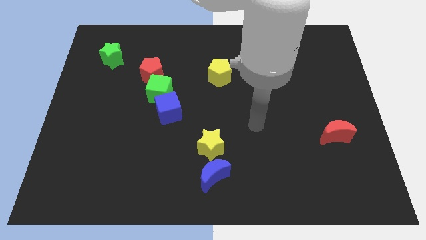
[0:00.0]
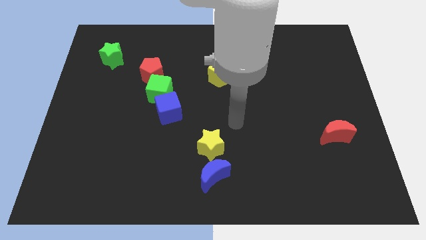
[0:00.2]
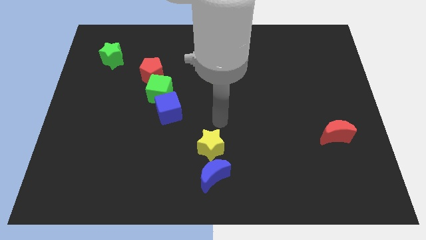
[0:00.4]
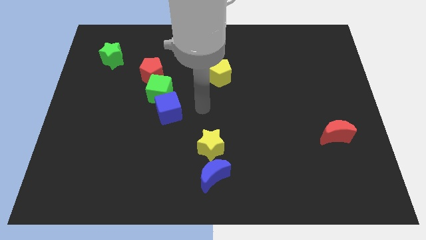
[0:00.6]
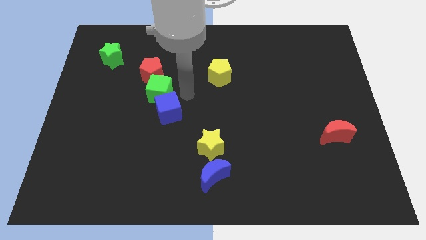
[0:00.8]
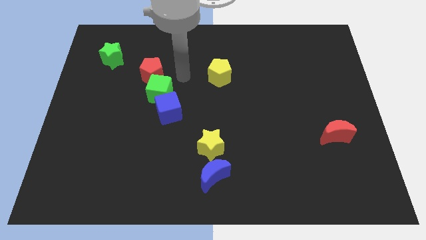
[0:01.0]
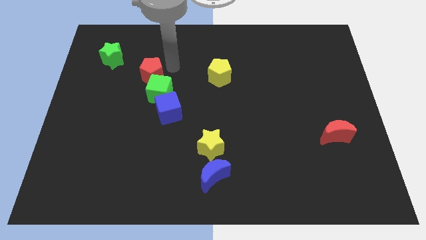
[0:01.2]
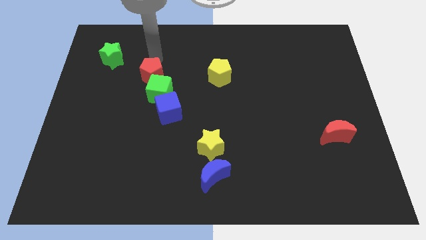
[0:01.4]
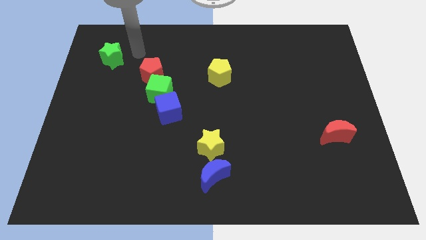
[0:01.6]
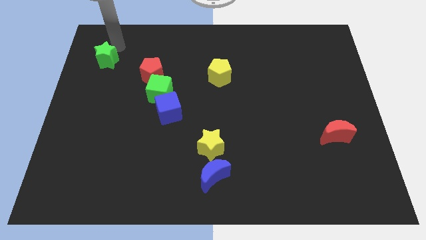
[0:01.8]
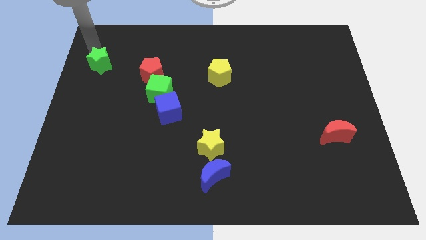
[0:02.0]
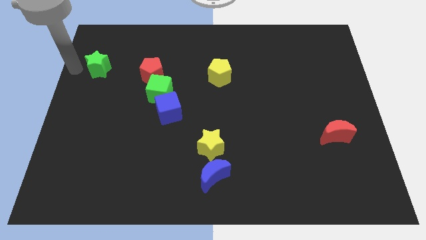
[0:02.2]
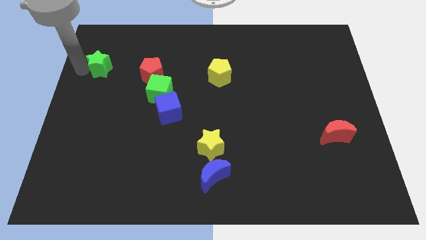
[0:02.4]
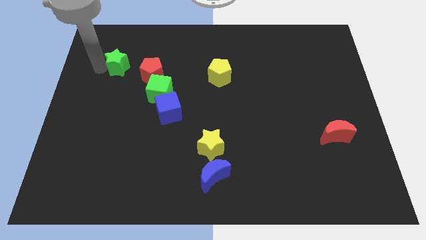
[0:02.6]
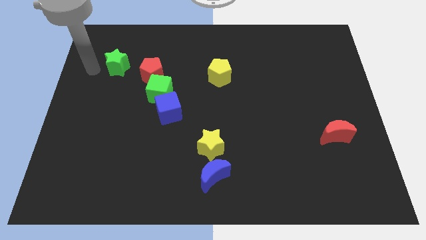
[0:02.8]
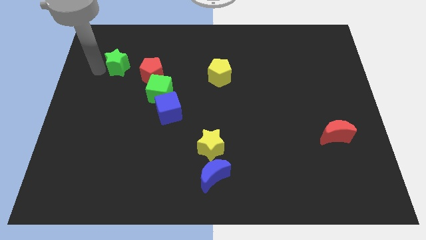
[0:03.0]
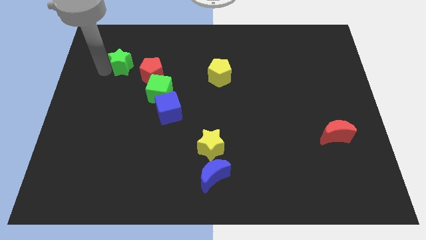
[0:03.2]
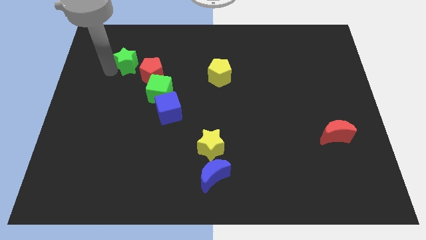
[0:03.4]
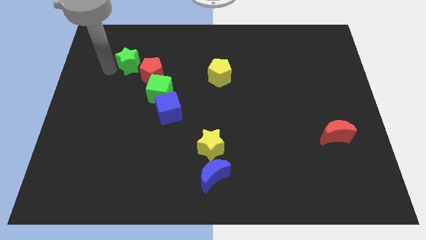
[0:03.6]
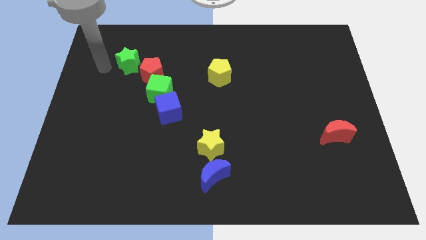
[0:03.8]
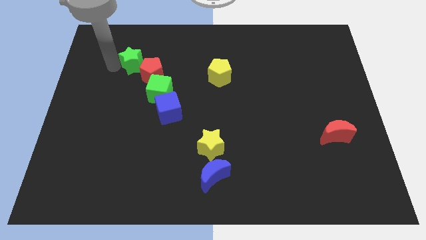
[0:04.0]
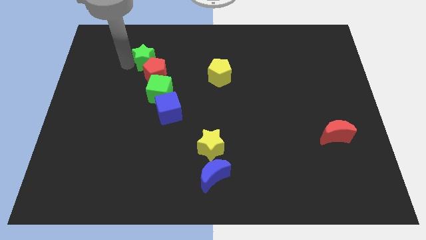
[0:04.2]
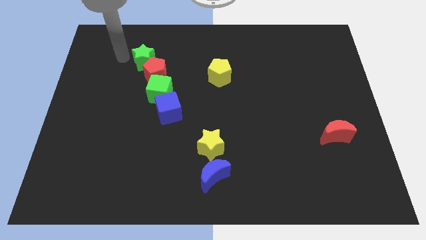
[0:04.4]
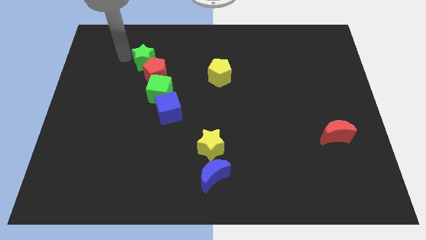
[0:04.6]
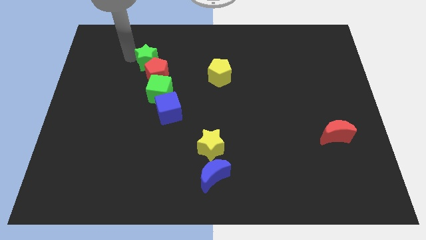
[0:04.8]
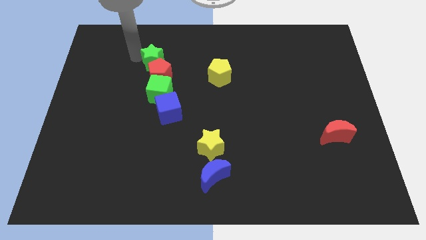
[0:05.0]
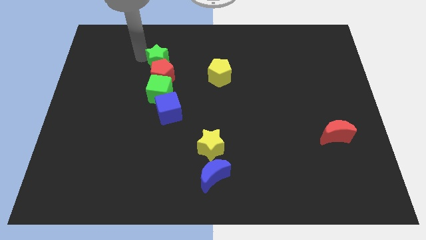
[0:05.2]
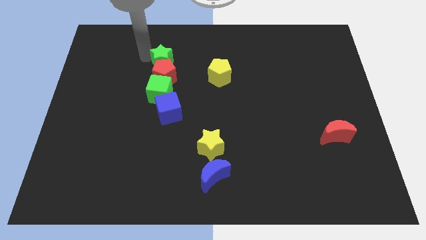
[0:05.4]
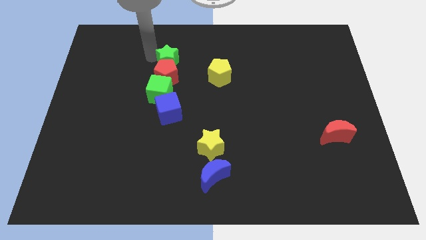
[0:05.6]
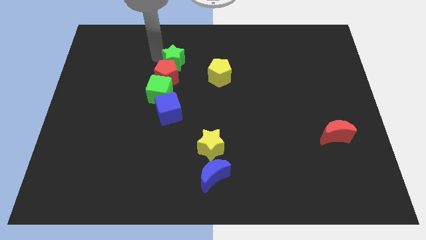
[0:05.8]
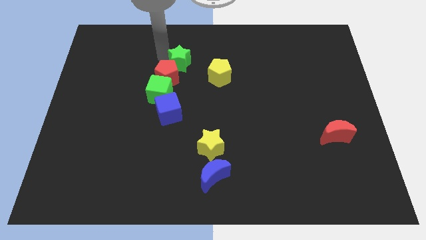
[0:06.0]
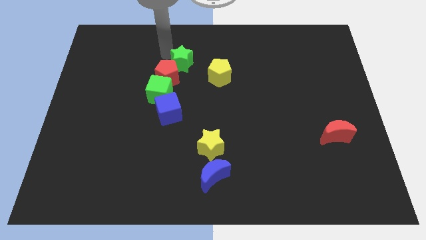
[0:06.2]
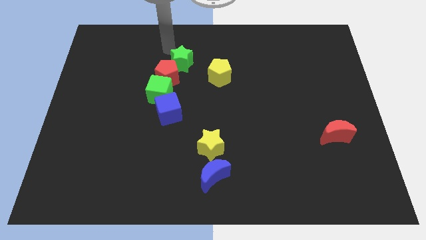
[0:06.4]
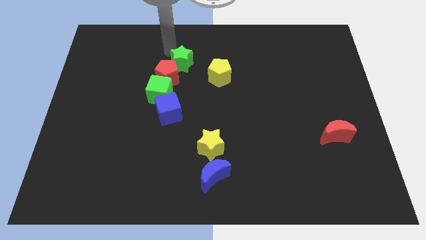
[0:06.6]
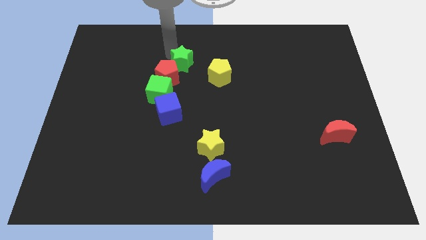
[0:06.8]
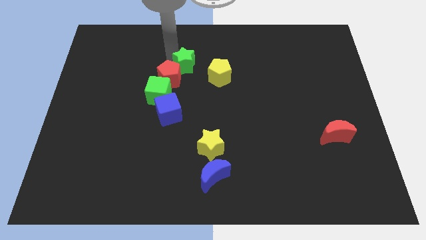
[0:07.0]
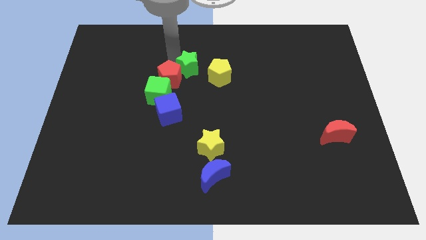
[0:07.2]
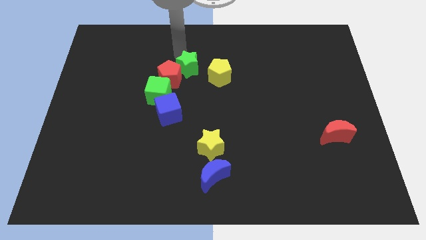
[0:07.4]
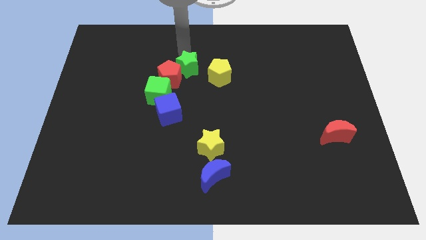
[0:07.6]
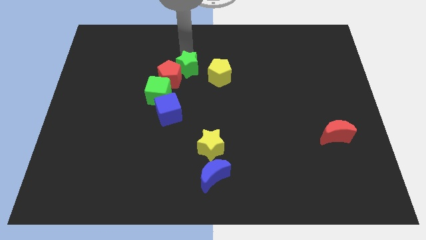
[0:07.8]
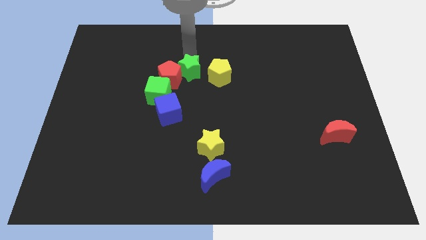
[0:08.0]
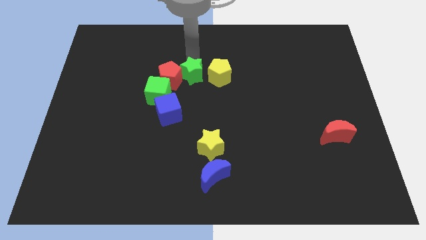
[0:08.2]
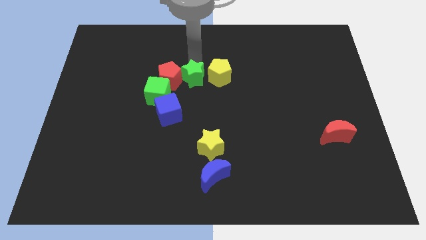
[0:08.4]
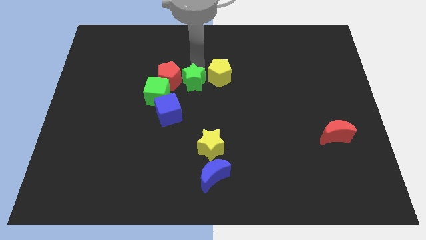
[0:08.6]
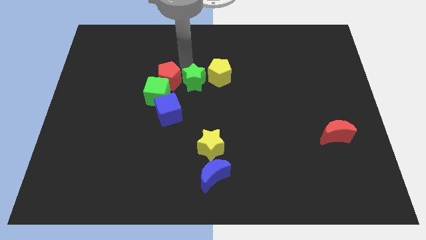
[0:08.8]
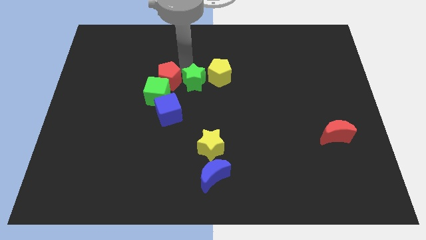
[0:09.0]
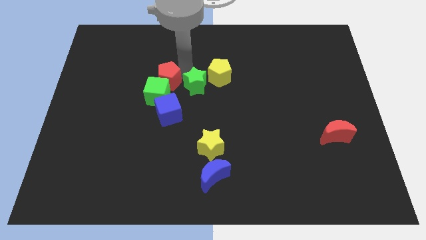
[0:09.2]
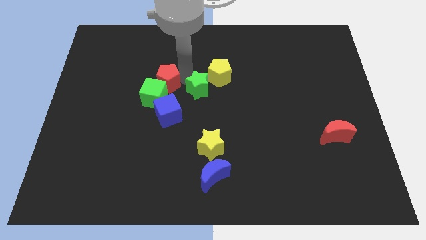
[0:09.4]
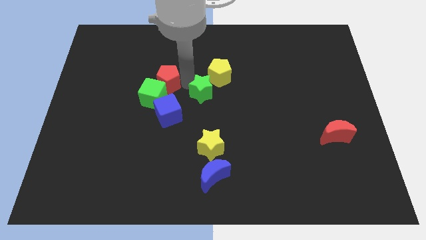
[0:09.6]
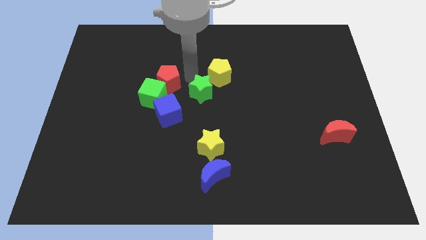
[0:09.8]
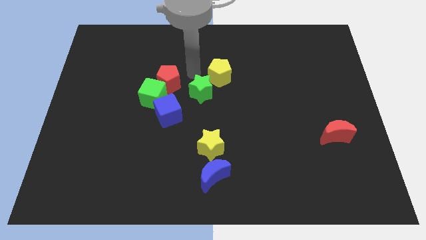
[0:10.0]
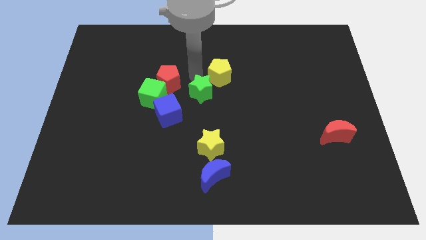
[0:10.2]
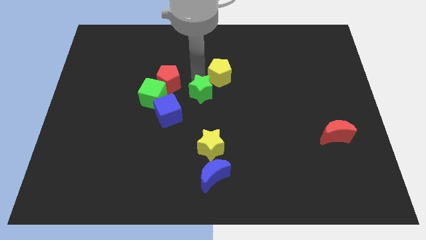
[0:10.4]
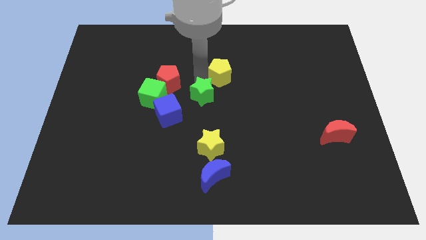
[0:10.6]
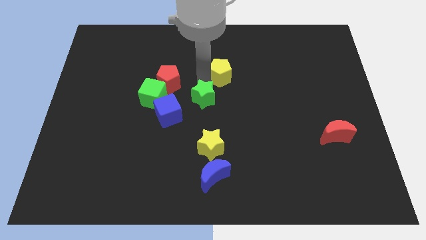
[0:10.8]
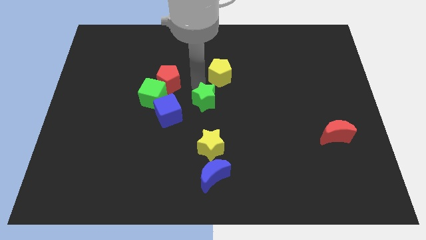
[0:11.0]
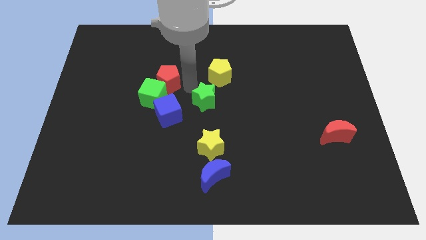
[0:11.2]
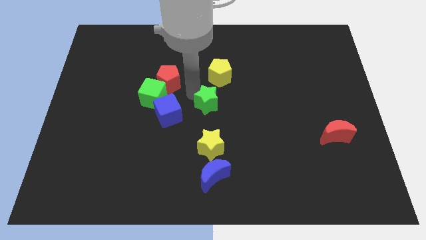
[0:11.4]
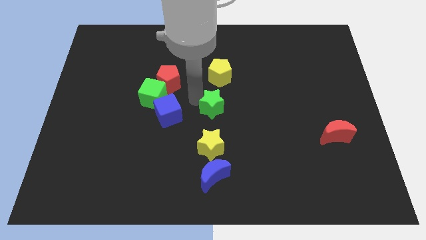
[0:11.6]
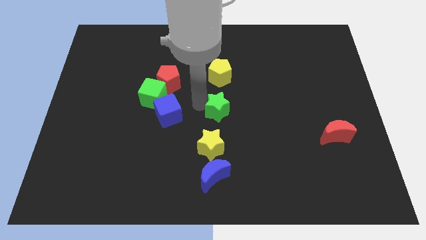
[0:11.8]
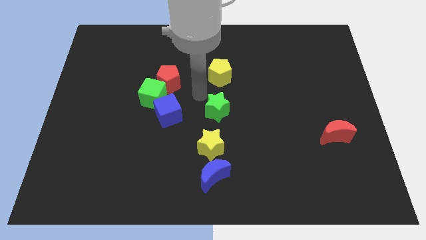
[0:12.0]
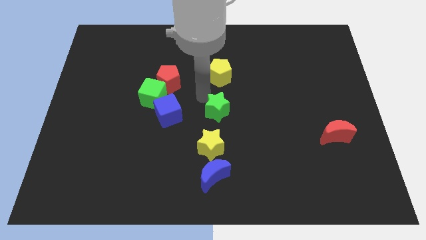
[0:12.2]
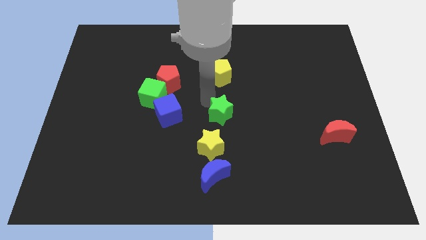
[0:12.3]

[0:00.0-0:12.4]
slide the green star to the top right side of the yellow star

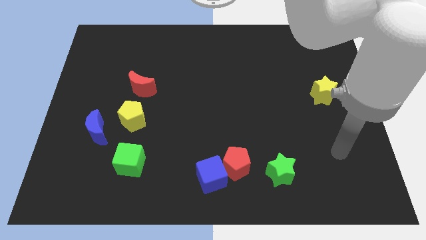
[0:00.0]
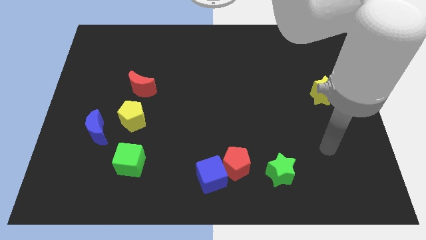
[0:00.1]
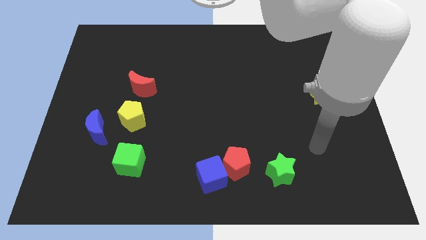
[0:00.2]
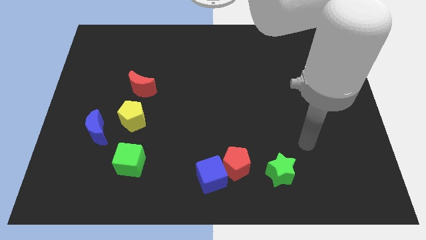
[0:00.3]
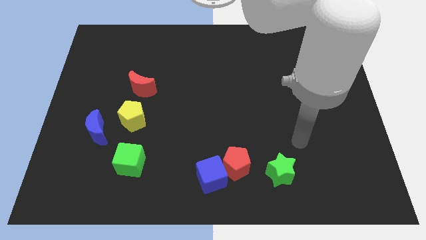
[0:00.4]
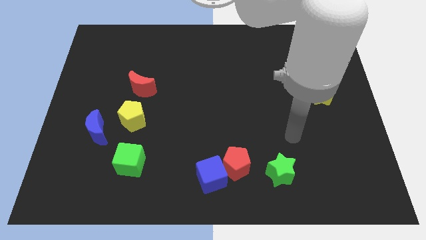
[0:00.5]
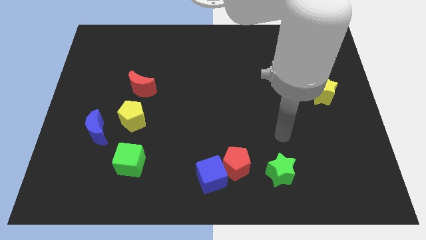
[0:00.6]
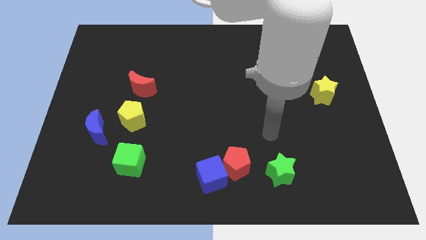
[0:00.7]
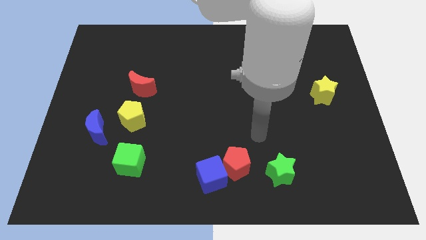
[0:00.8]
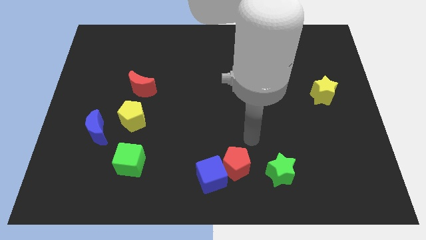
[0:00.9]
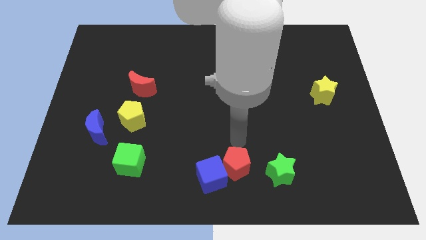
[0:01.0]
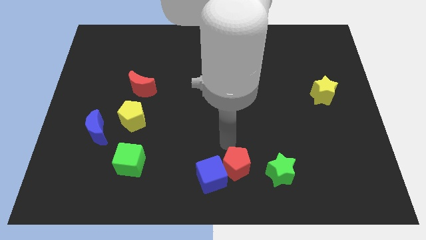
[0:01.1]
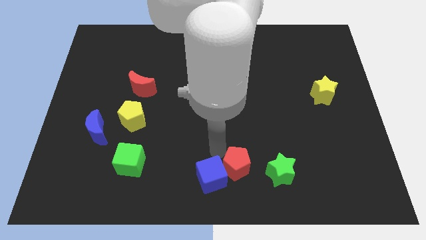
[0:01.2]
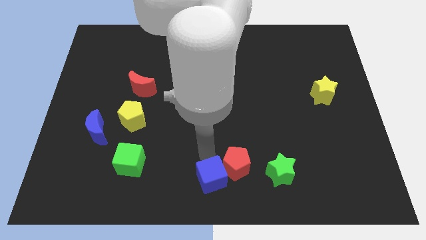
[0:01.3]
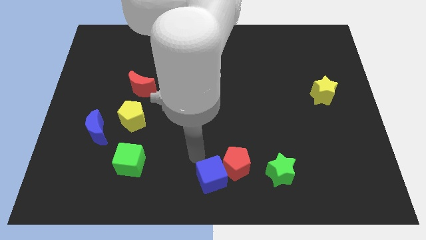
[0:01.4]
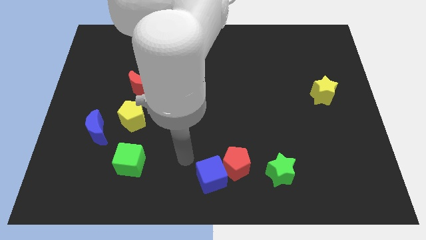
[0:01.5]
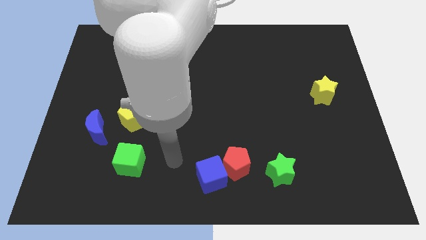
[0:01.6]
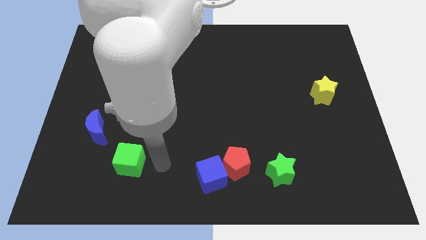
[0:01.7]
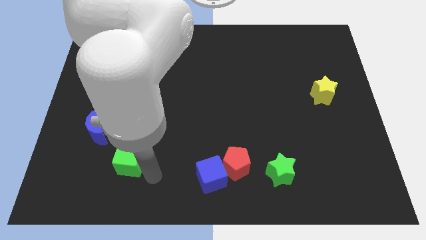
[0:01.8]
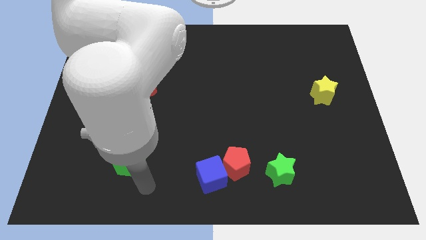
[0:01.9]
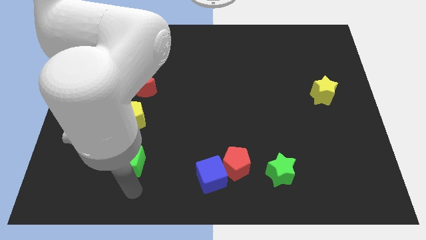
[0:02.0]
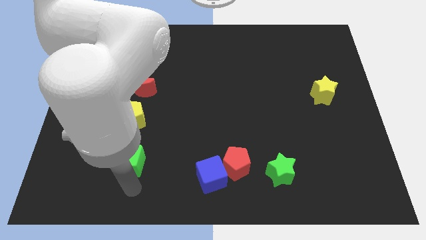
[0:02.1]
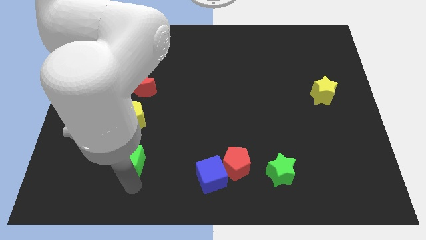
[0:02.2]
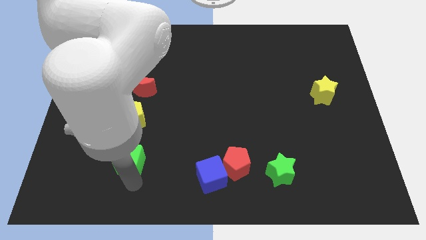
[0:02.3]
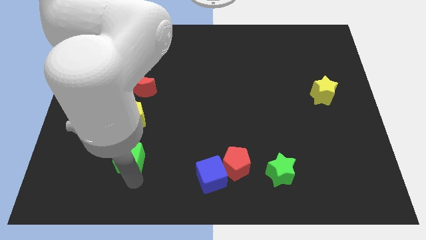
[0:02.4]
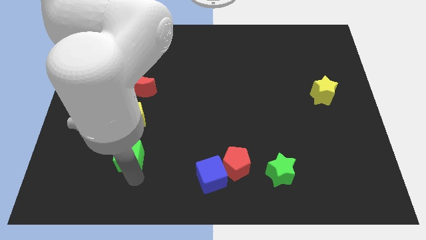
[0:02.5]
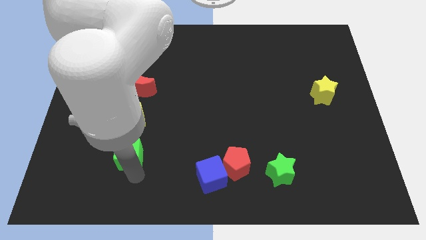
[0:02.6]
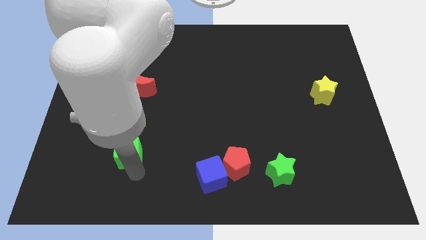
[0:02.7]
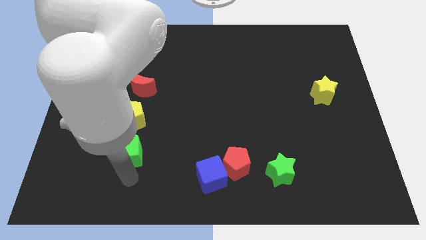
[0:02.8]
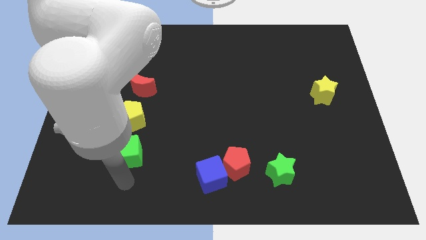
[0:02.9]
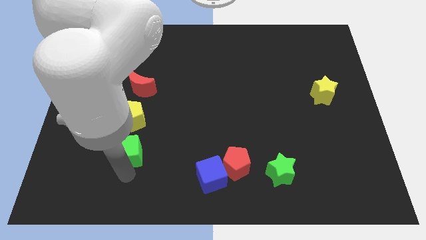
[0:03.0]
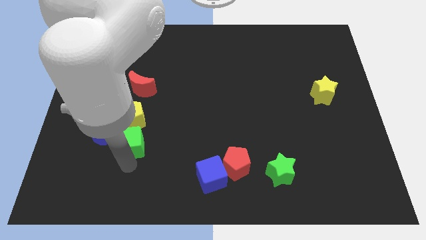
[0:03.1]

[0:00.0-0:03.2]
put the green cube to the bottom side of the red moon
